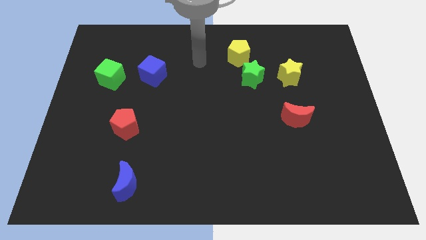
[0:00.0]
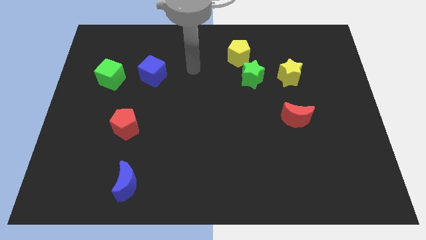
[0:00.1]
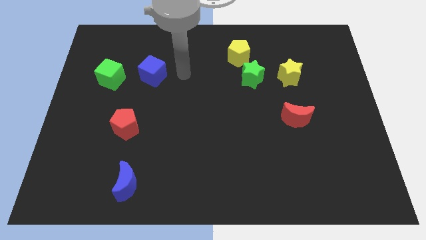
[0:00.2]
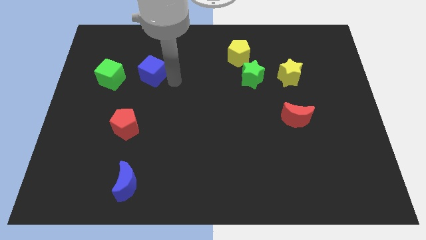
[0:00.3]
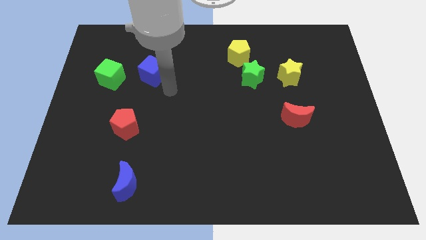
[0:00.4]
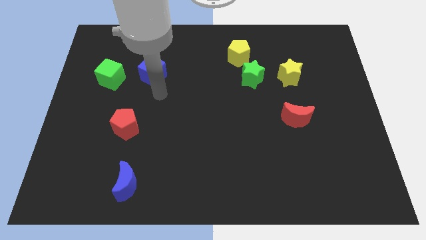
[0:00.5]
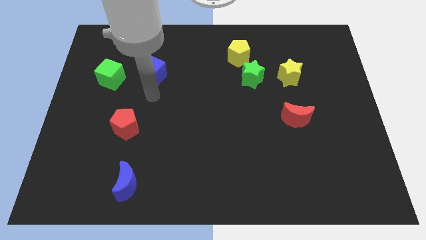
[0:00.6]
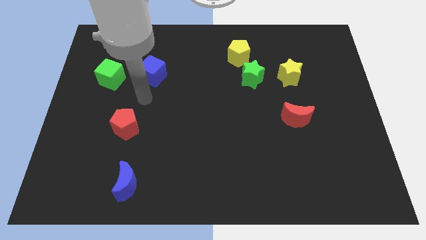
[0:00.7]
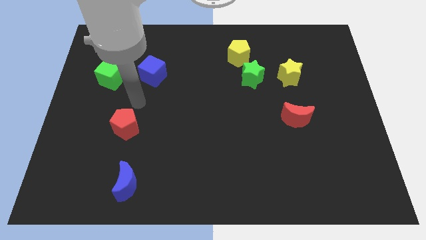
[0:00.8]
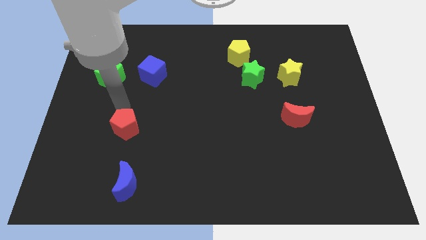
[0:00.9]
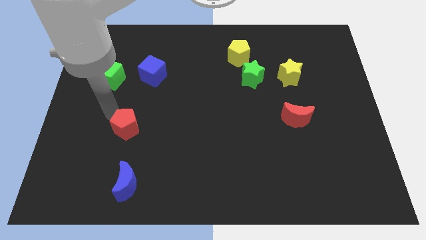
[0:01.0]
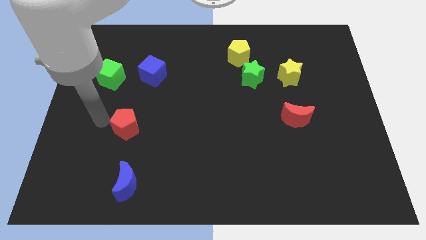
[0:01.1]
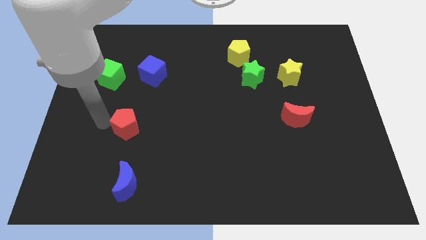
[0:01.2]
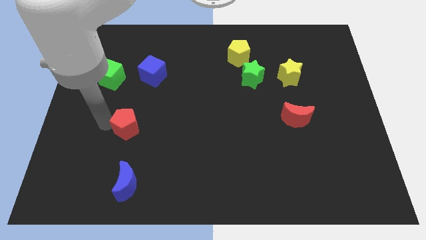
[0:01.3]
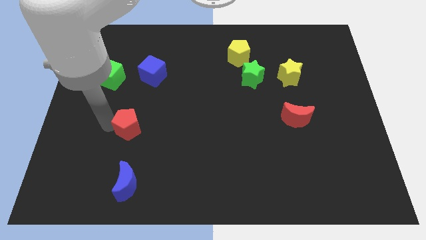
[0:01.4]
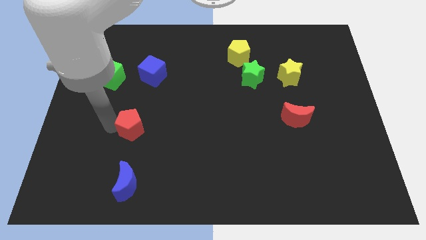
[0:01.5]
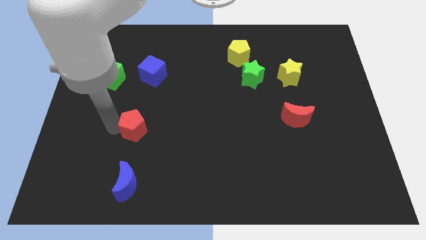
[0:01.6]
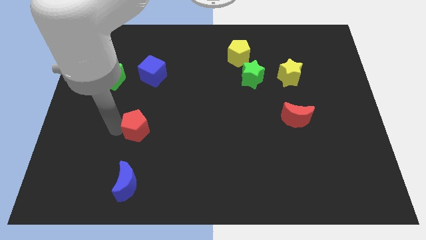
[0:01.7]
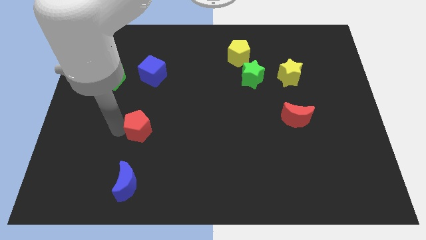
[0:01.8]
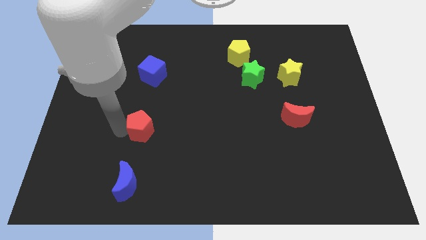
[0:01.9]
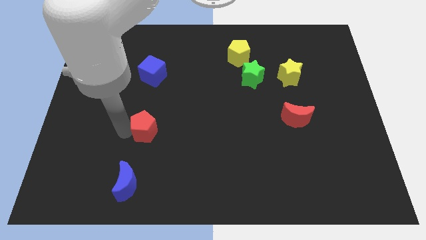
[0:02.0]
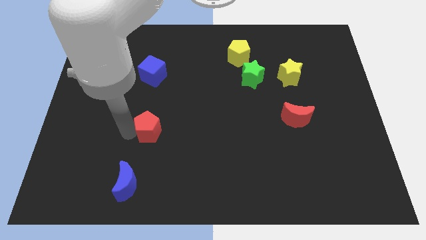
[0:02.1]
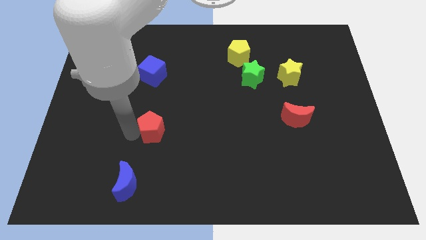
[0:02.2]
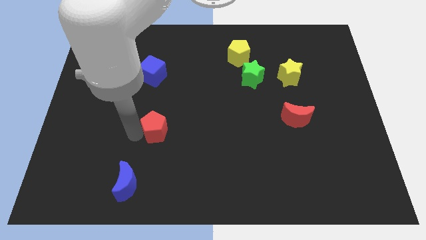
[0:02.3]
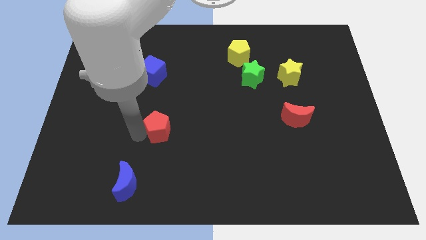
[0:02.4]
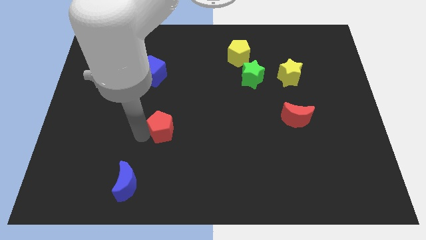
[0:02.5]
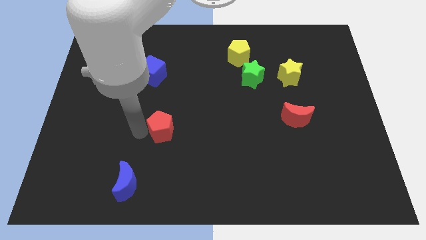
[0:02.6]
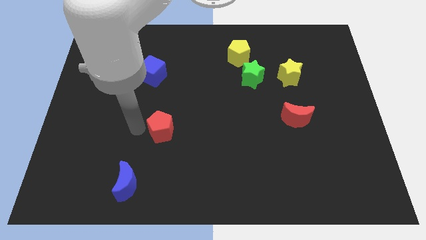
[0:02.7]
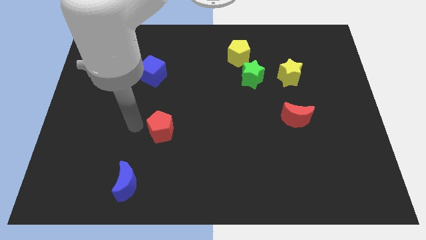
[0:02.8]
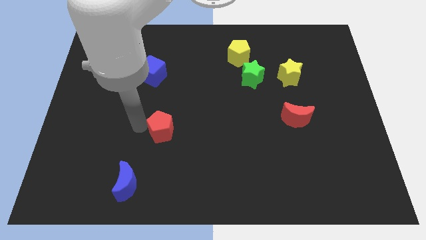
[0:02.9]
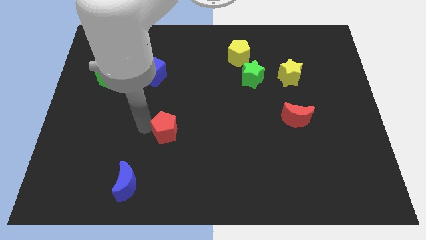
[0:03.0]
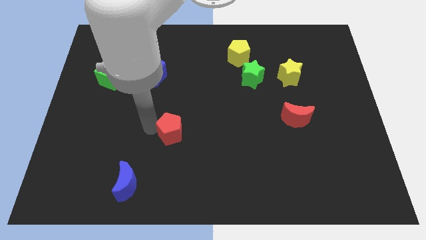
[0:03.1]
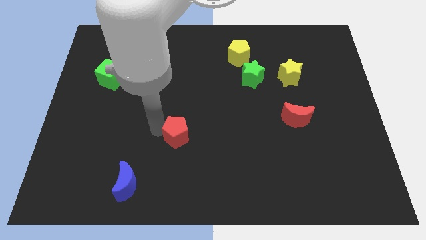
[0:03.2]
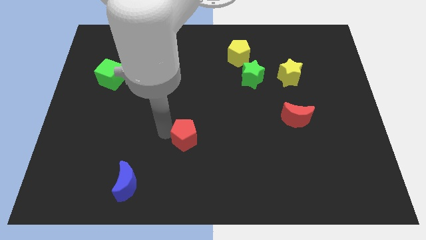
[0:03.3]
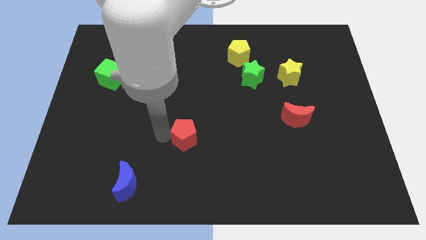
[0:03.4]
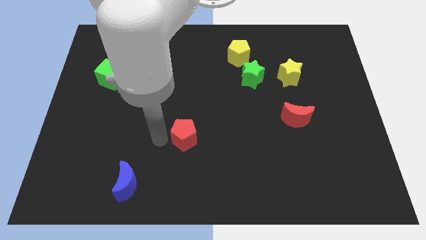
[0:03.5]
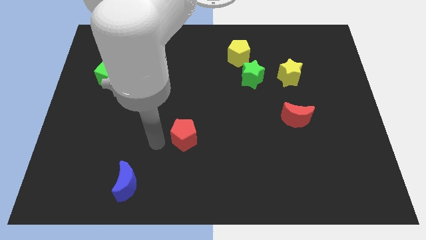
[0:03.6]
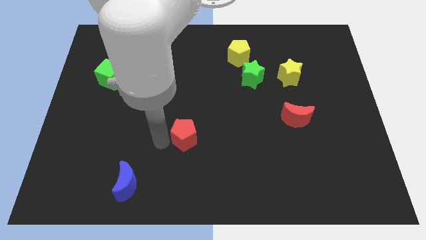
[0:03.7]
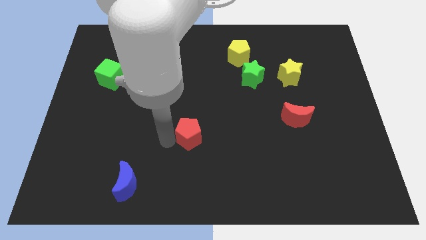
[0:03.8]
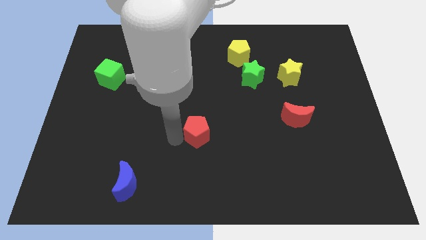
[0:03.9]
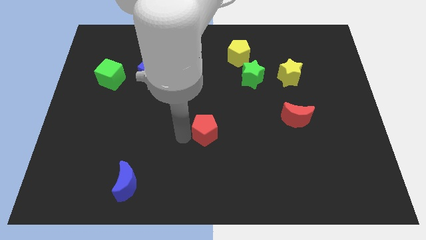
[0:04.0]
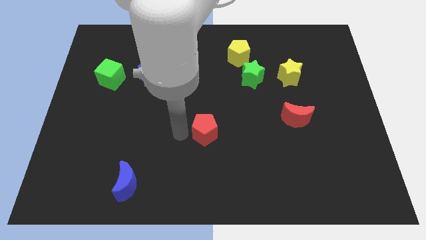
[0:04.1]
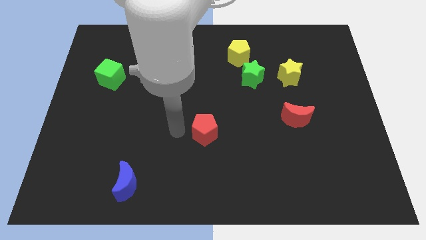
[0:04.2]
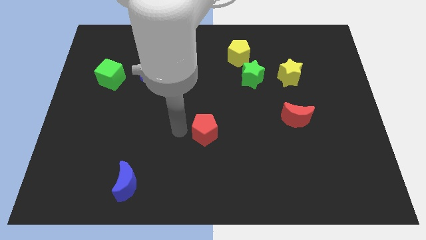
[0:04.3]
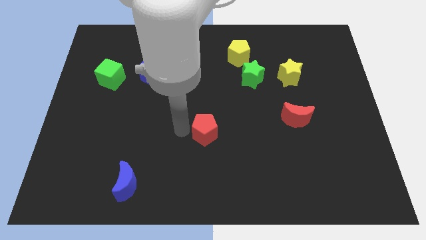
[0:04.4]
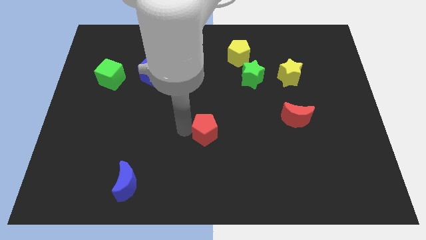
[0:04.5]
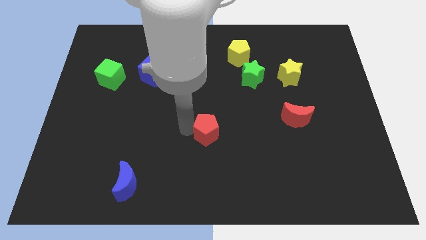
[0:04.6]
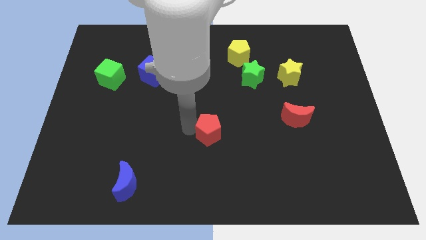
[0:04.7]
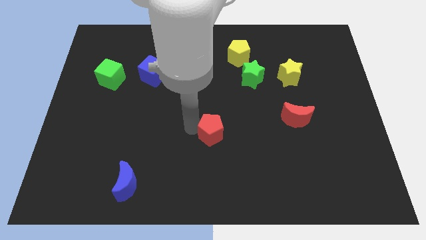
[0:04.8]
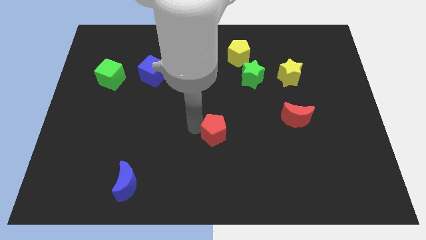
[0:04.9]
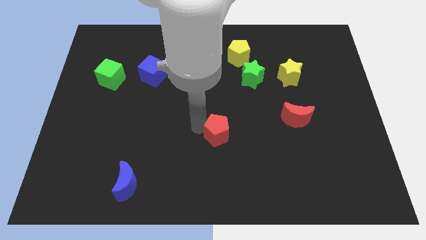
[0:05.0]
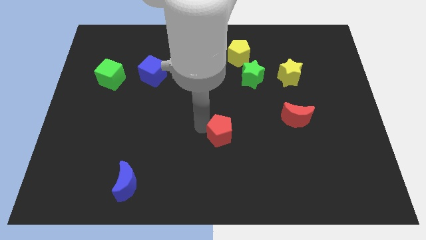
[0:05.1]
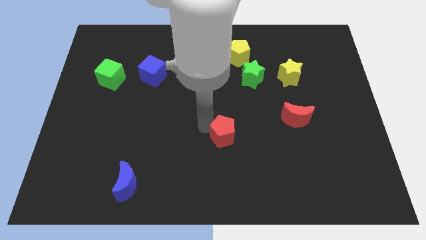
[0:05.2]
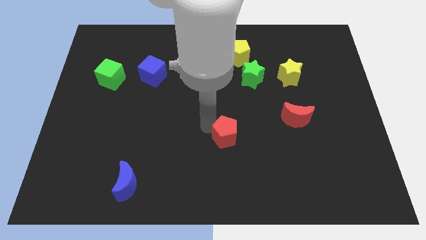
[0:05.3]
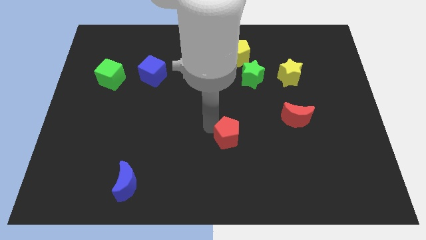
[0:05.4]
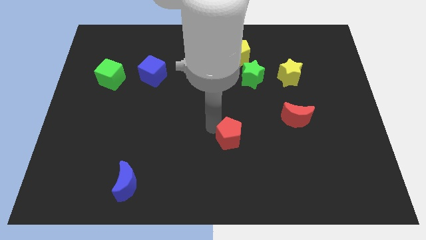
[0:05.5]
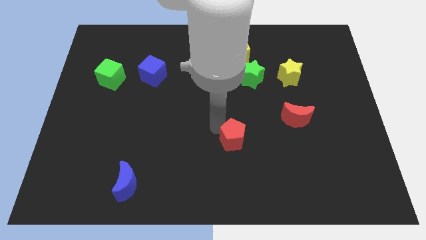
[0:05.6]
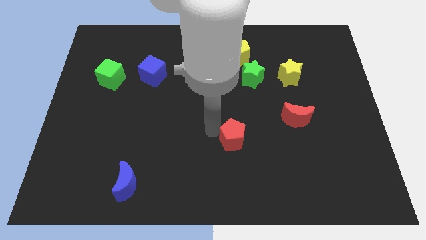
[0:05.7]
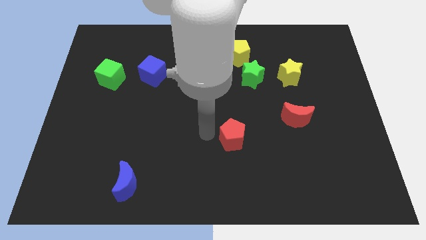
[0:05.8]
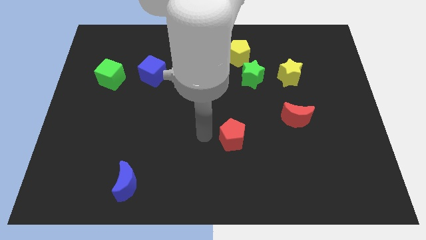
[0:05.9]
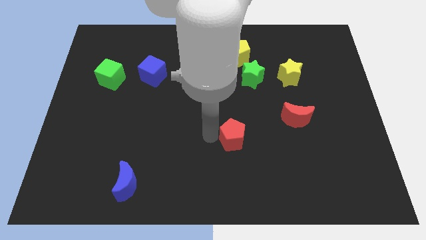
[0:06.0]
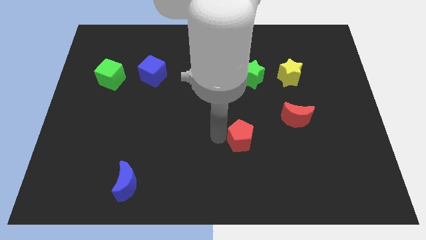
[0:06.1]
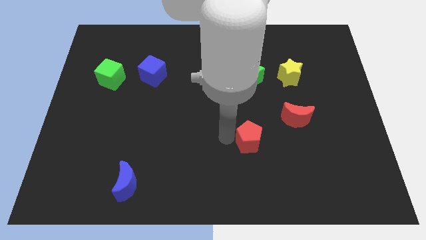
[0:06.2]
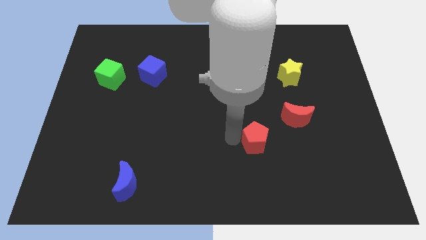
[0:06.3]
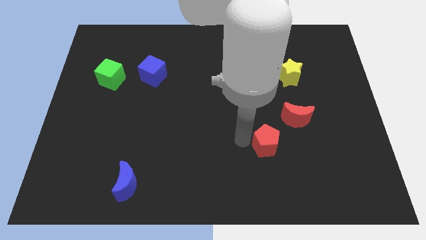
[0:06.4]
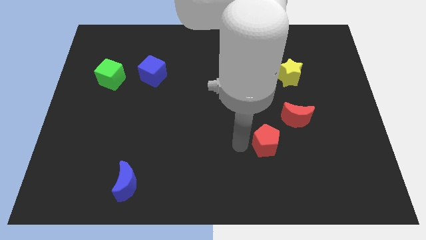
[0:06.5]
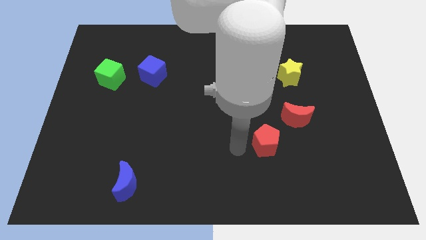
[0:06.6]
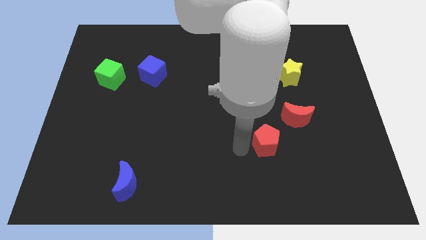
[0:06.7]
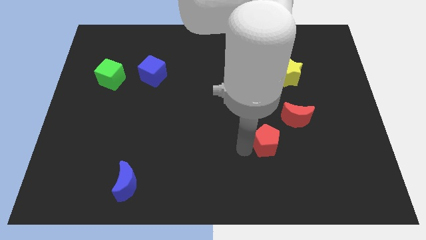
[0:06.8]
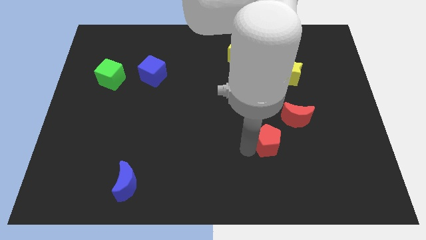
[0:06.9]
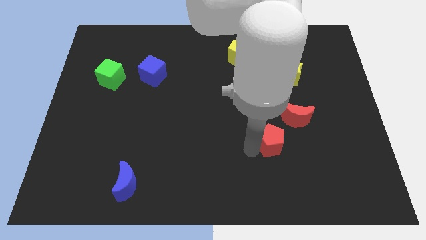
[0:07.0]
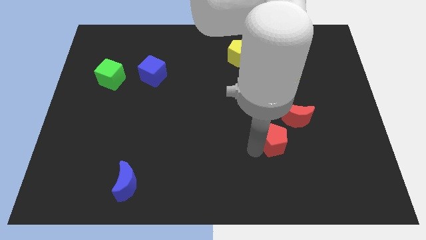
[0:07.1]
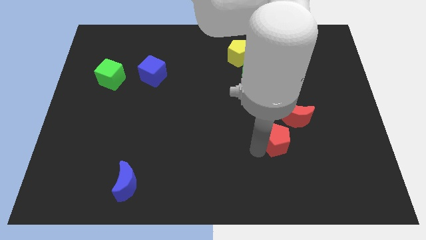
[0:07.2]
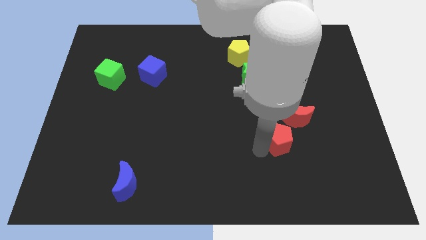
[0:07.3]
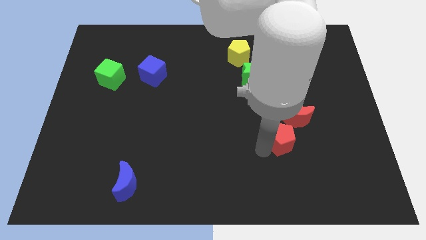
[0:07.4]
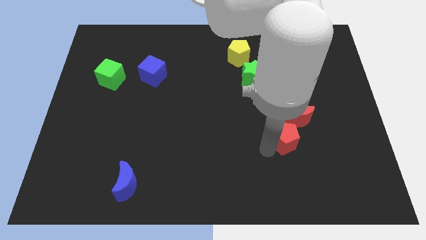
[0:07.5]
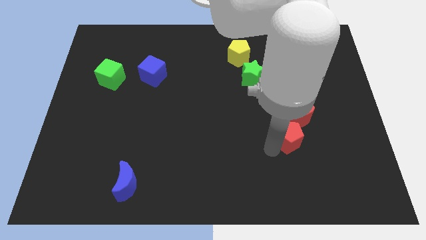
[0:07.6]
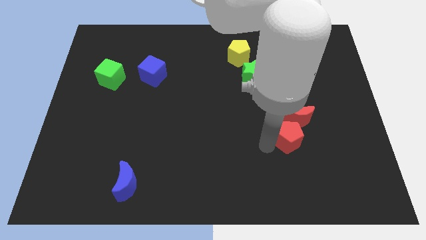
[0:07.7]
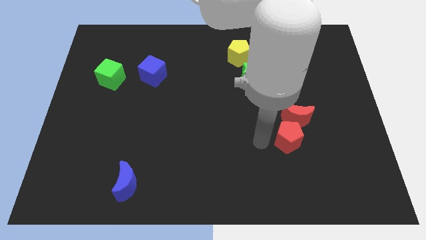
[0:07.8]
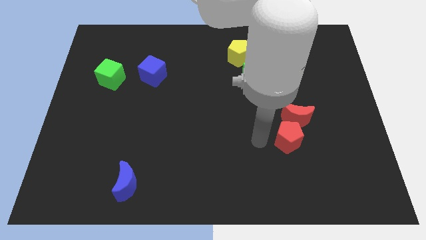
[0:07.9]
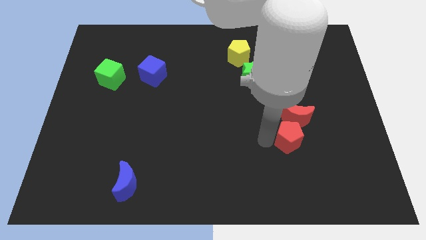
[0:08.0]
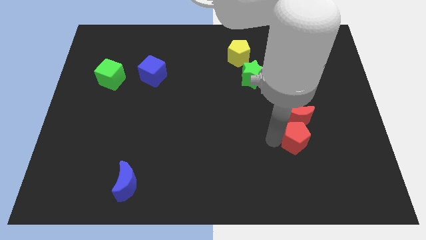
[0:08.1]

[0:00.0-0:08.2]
put the red pentagon to the bottom right of the red moon
